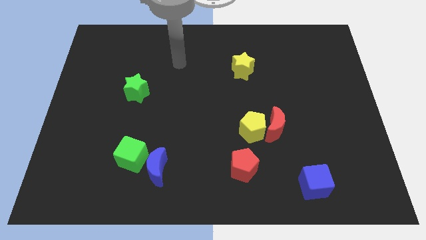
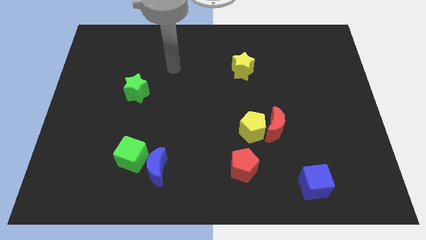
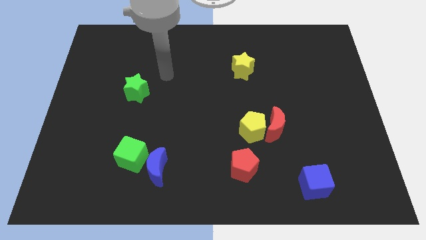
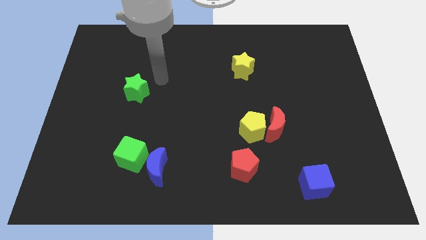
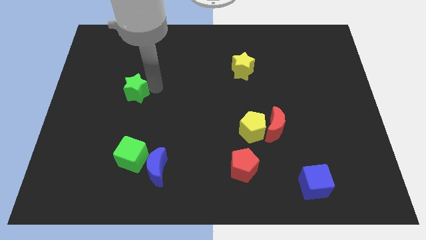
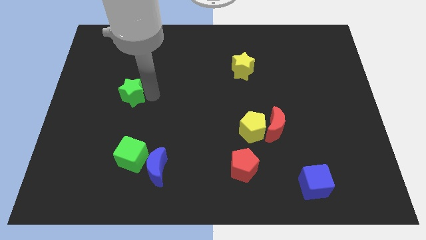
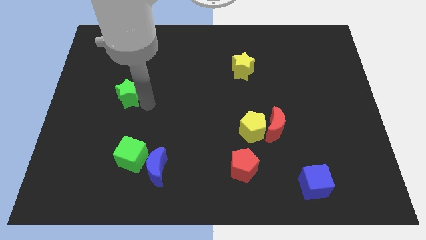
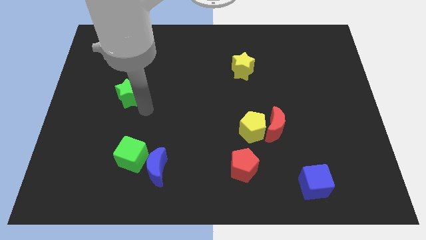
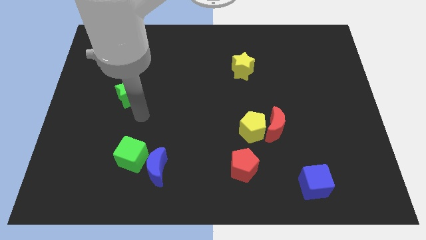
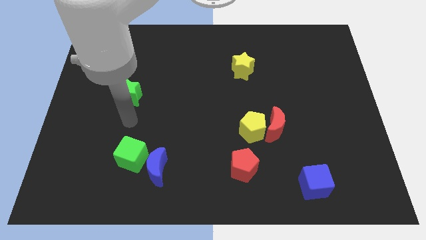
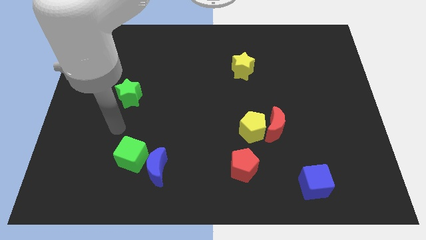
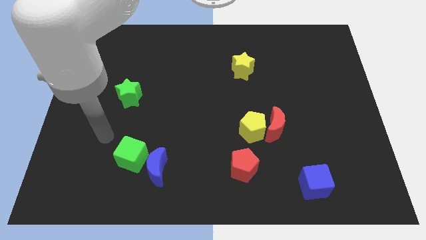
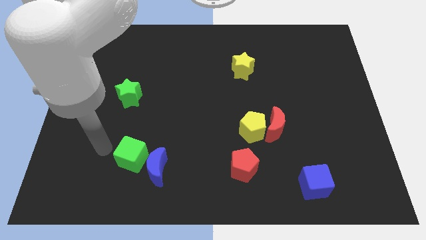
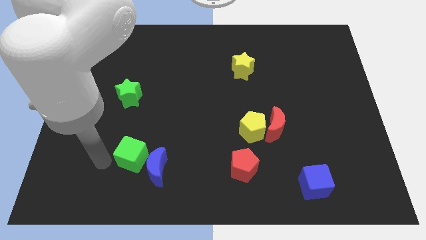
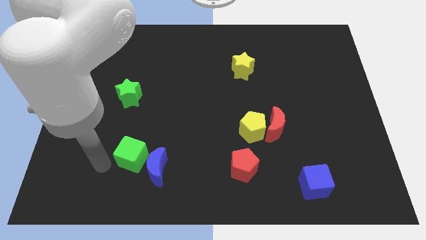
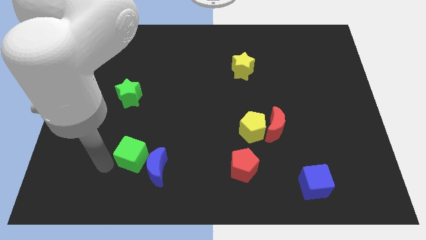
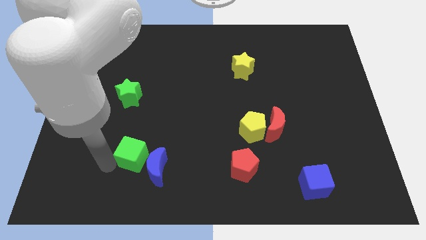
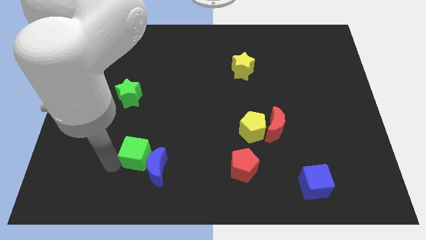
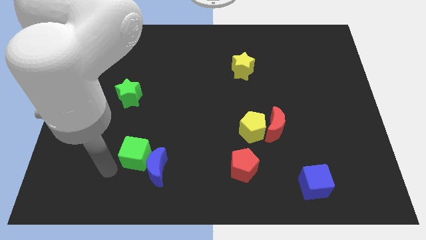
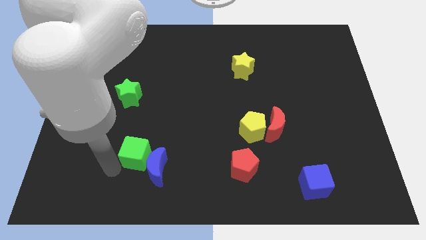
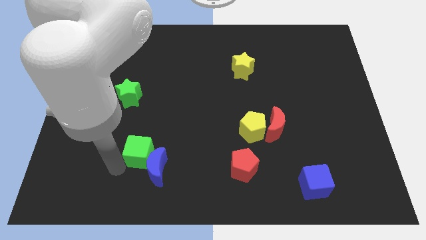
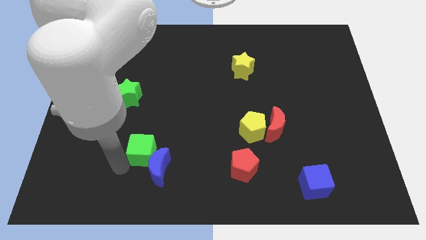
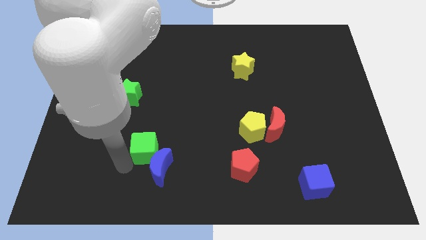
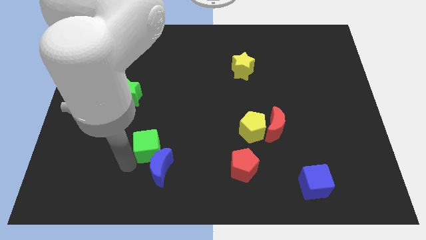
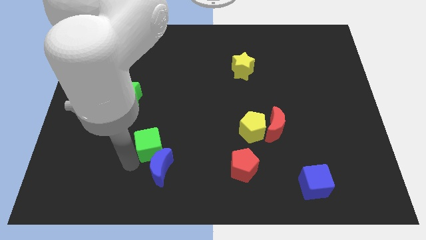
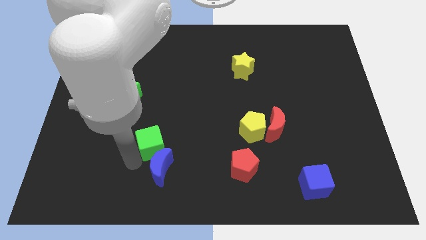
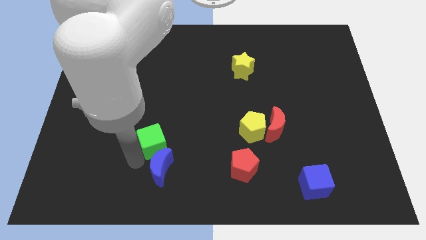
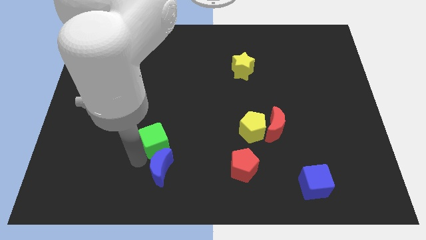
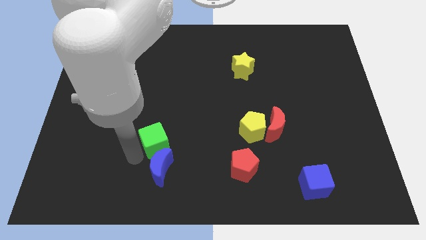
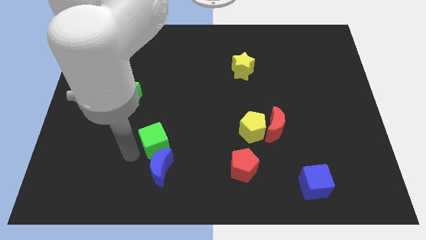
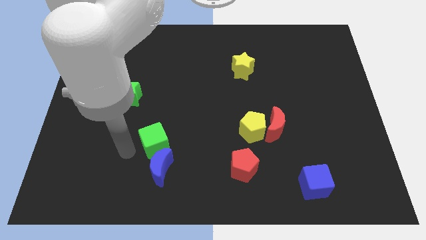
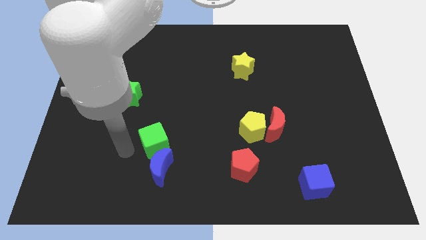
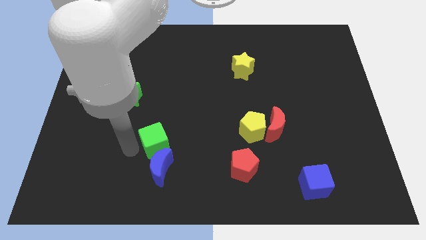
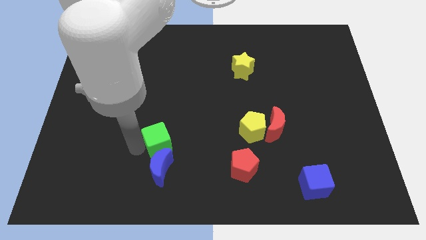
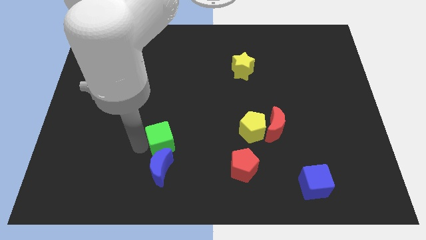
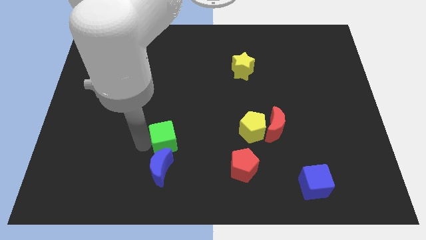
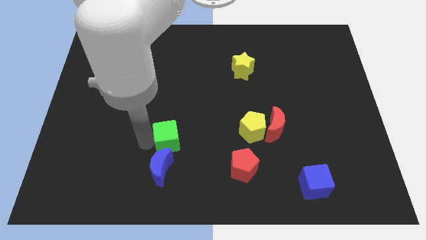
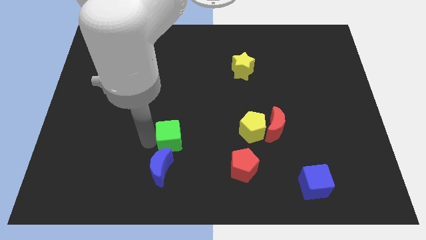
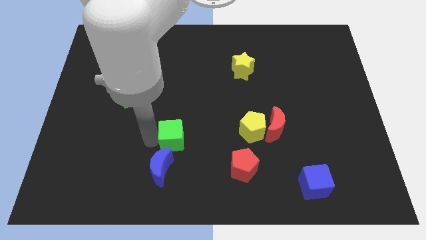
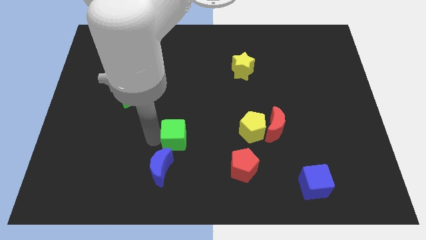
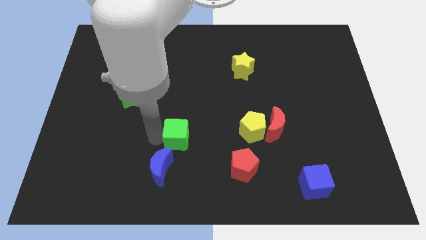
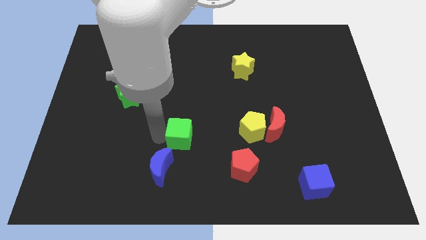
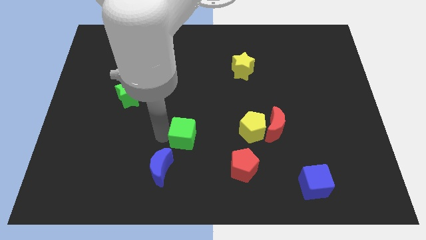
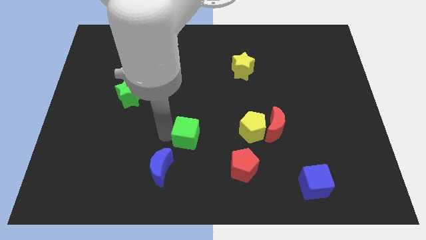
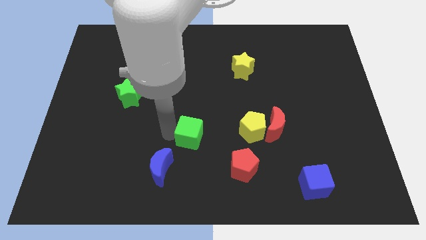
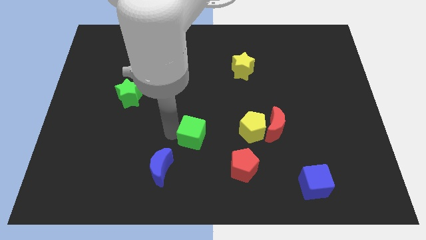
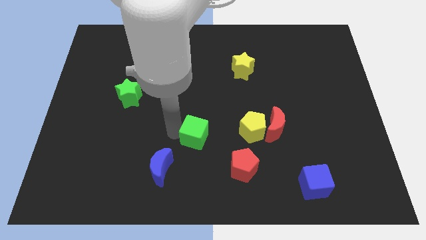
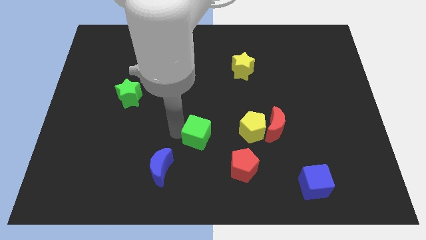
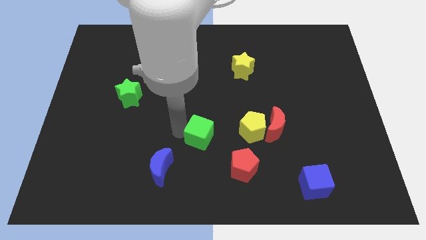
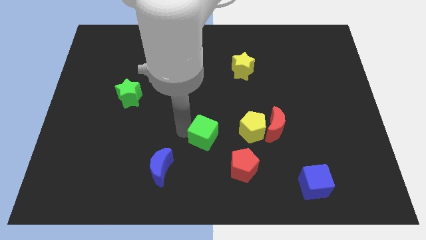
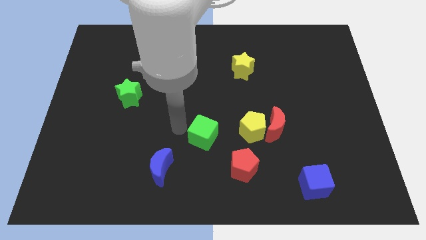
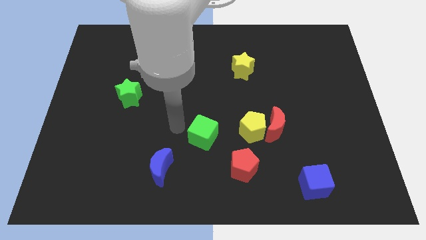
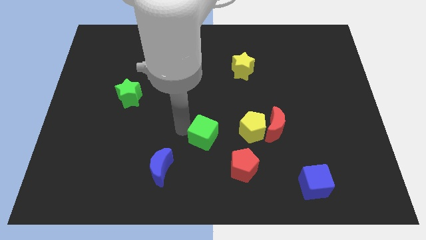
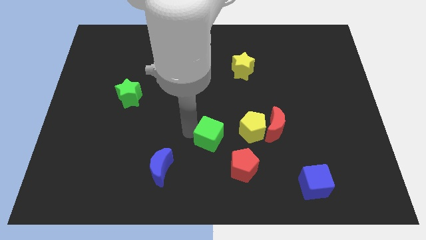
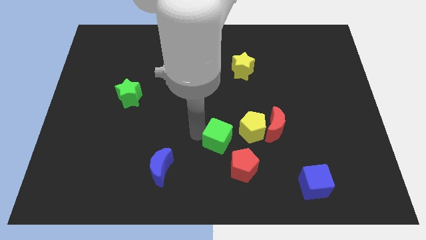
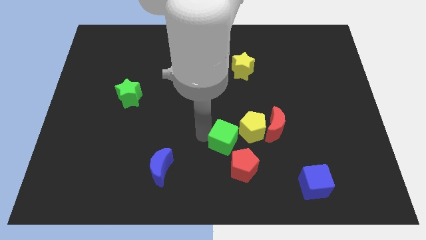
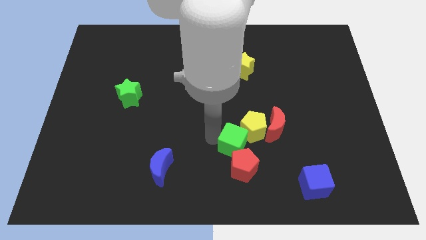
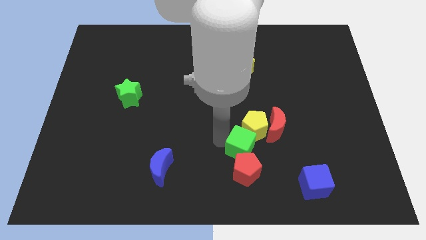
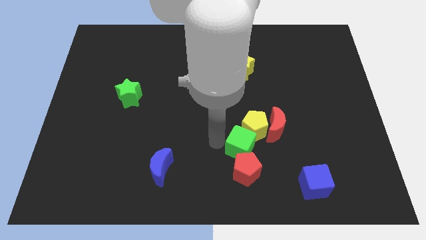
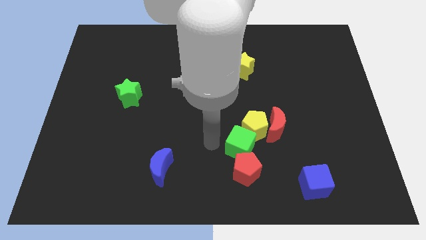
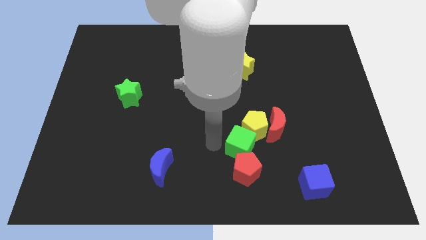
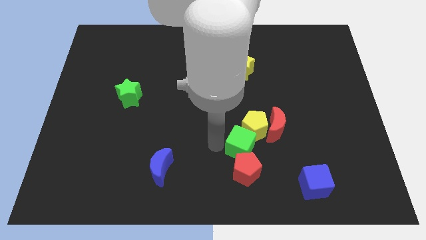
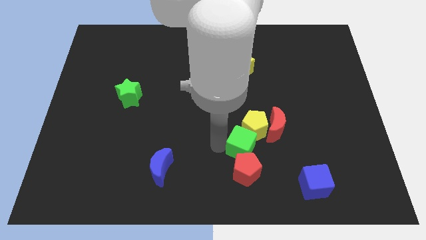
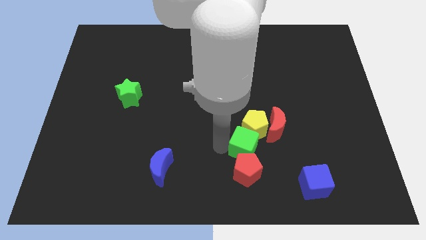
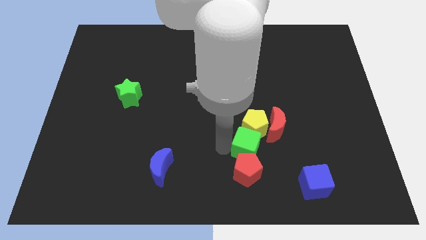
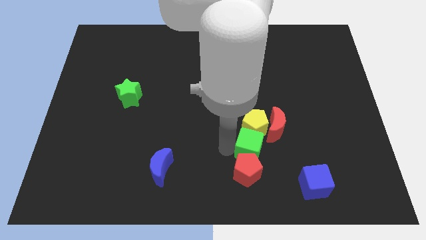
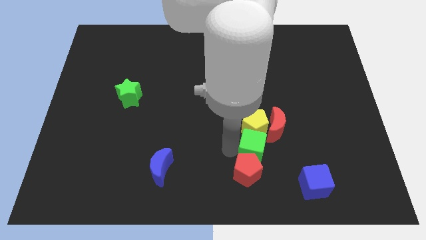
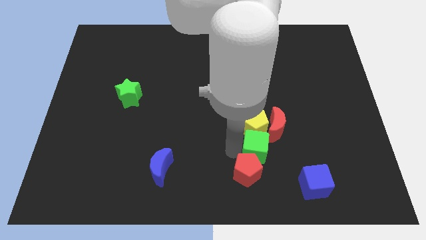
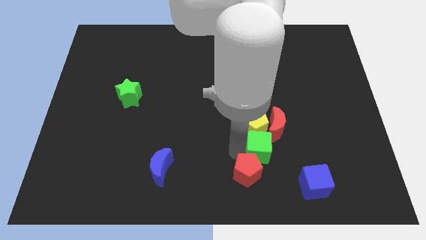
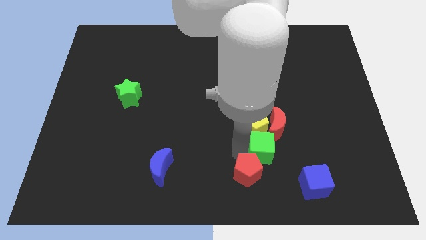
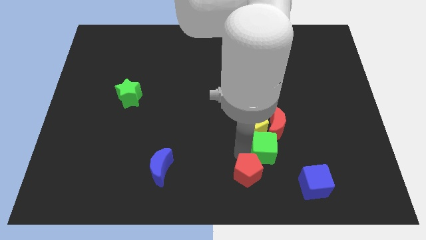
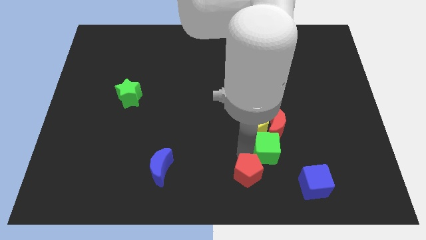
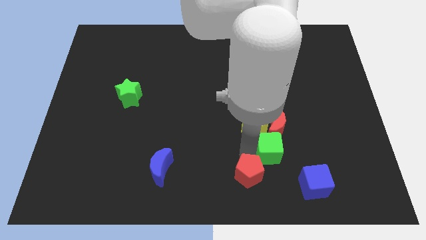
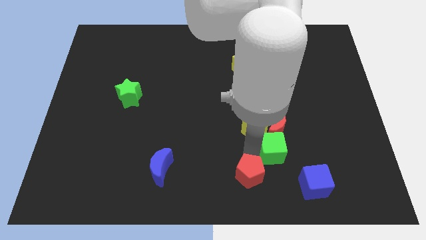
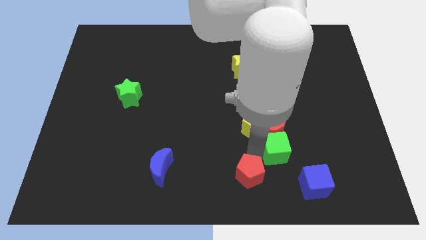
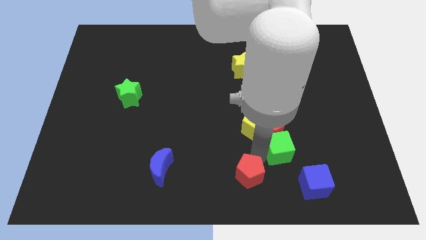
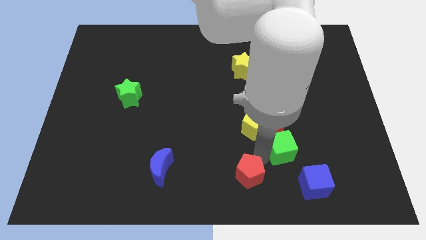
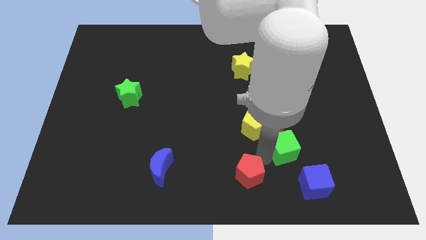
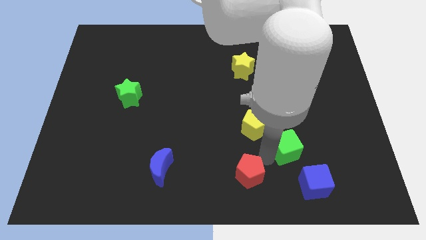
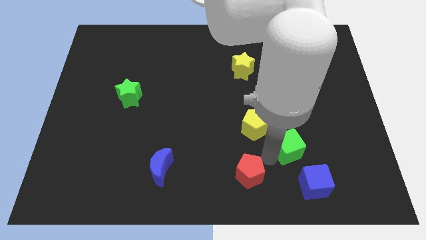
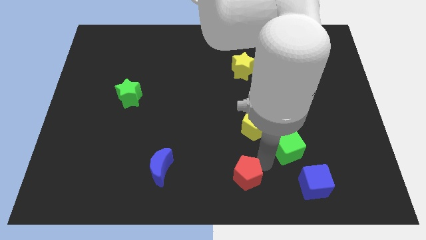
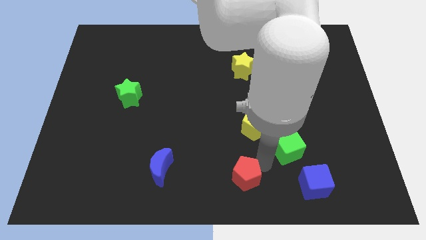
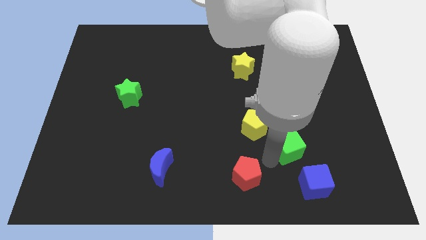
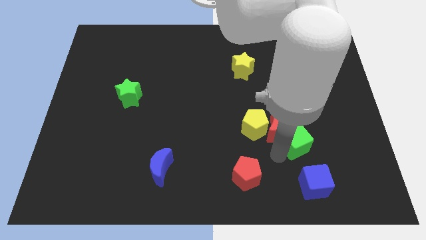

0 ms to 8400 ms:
slide the green cube just right of the red moon
